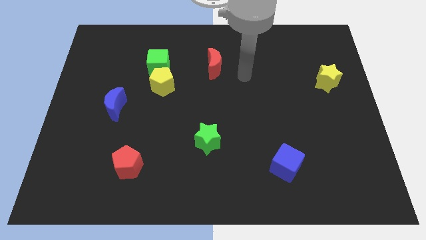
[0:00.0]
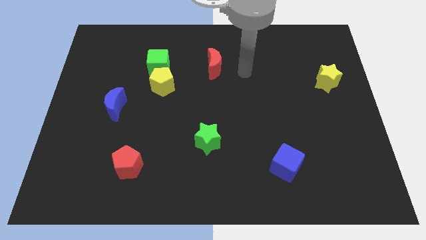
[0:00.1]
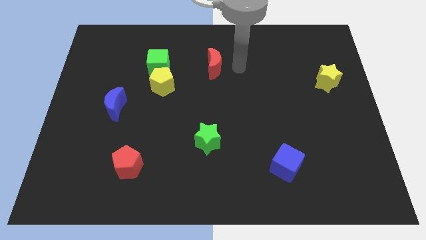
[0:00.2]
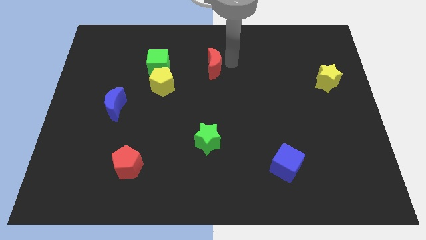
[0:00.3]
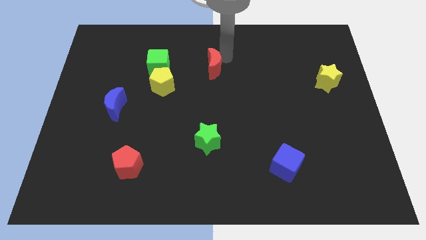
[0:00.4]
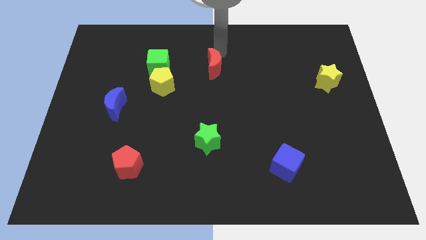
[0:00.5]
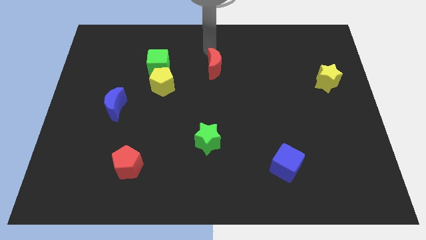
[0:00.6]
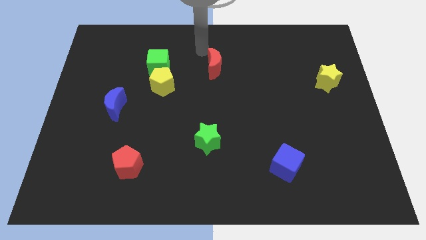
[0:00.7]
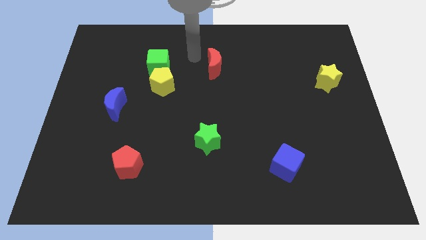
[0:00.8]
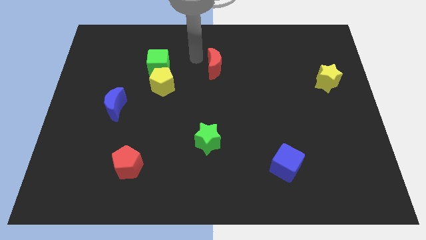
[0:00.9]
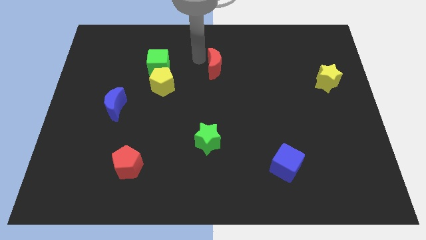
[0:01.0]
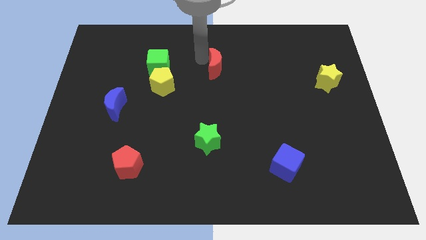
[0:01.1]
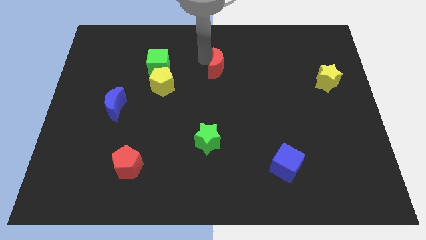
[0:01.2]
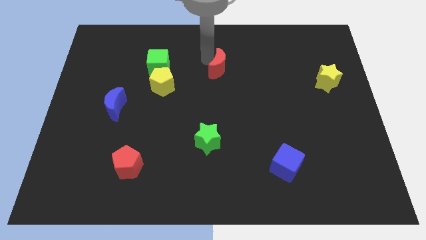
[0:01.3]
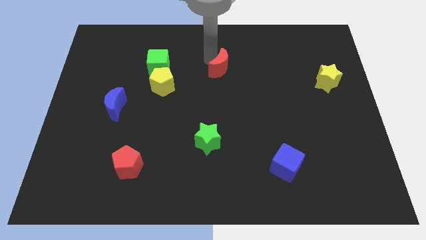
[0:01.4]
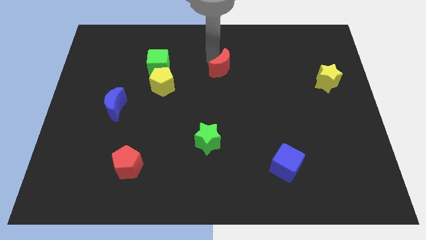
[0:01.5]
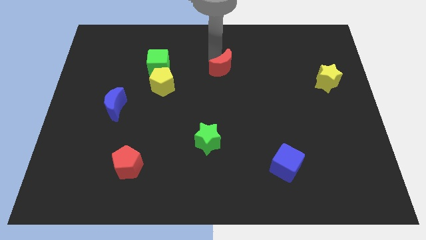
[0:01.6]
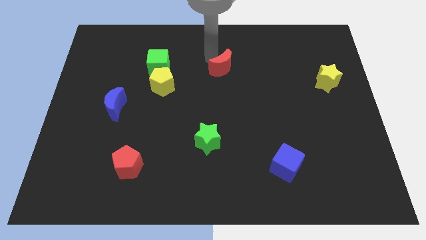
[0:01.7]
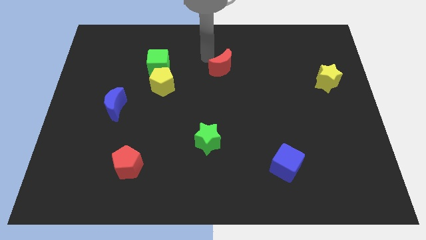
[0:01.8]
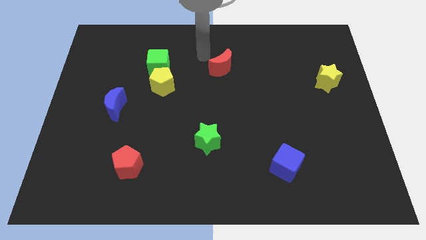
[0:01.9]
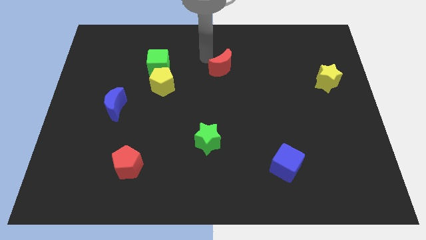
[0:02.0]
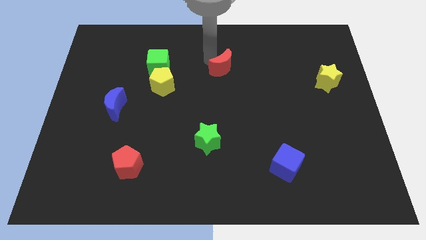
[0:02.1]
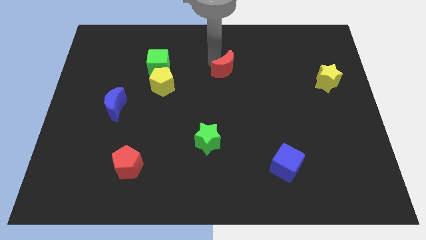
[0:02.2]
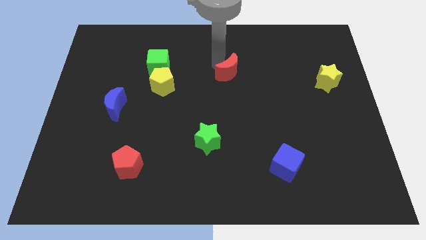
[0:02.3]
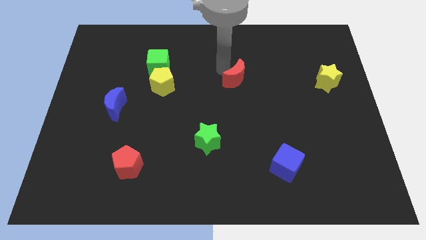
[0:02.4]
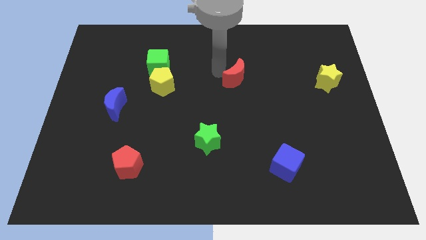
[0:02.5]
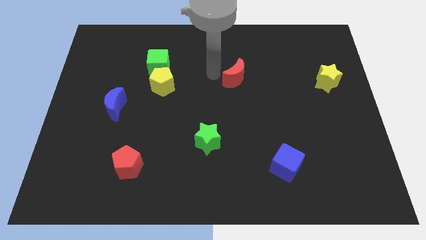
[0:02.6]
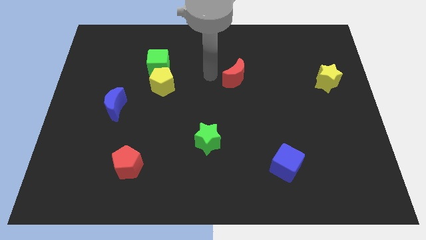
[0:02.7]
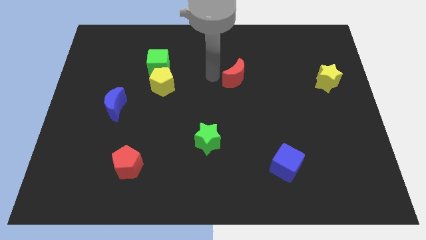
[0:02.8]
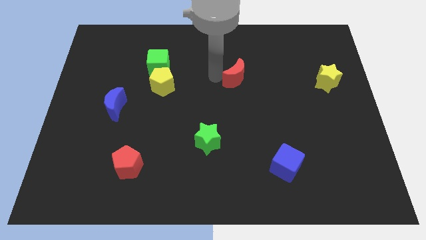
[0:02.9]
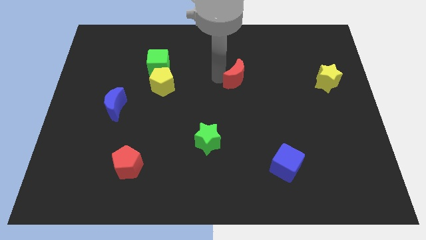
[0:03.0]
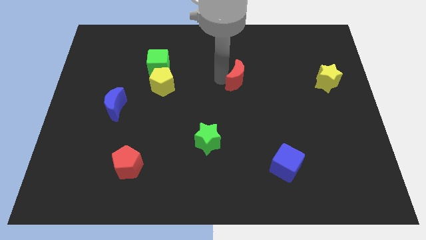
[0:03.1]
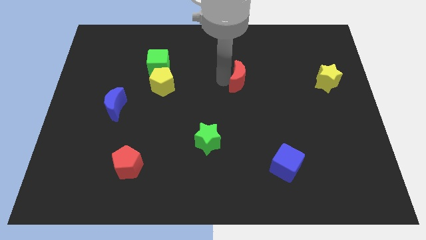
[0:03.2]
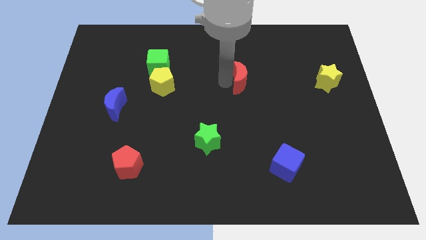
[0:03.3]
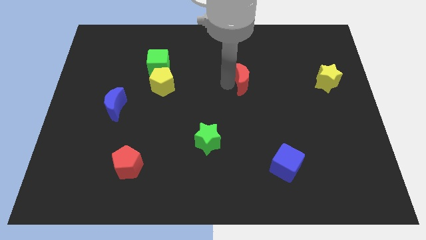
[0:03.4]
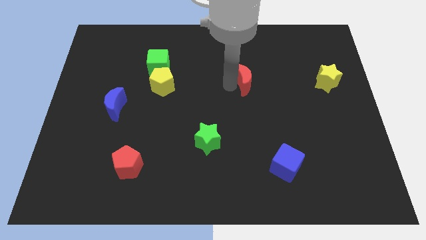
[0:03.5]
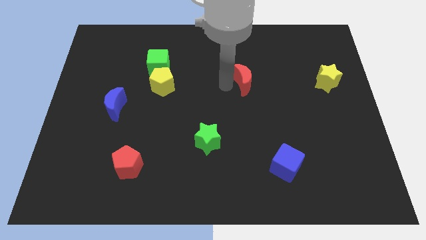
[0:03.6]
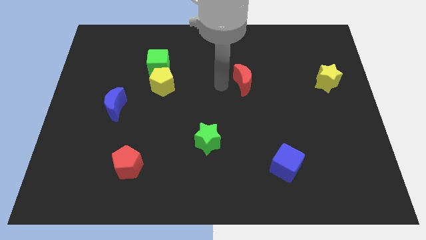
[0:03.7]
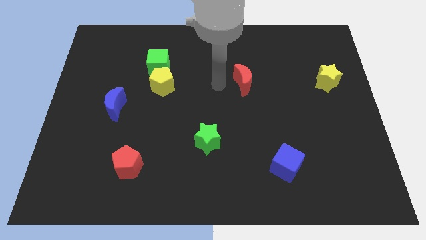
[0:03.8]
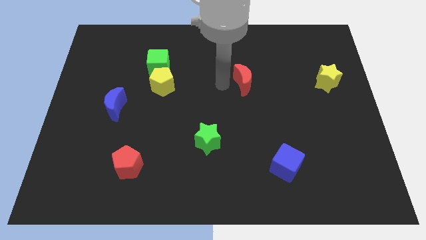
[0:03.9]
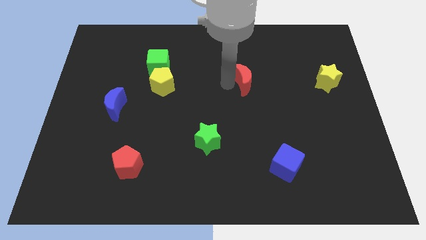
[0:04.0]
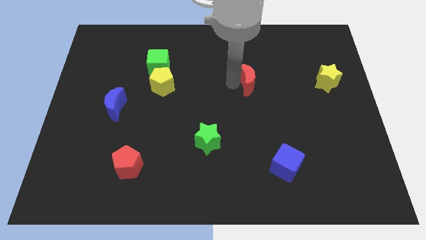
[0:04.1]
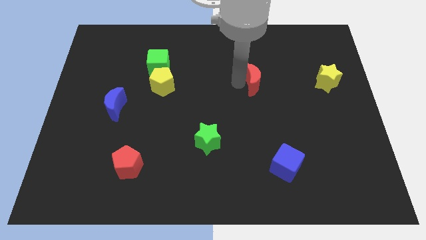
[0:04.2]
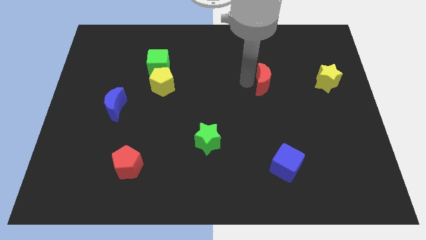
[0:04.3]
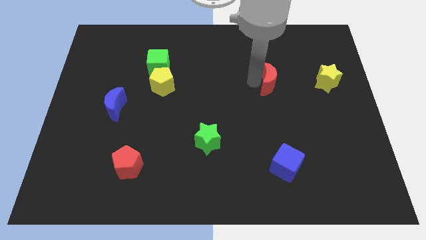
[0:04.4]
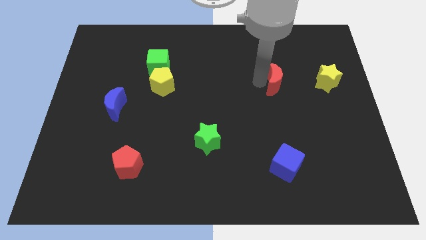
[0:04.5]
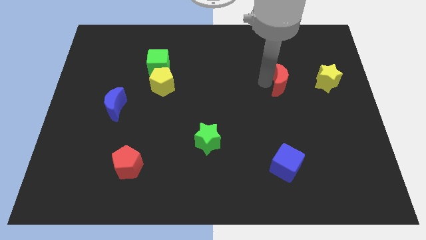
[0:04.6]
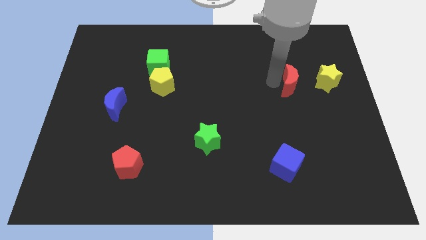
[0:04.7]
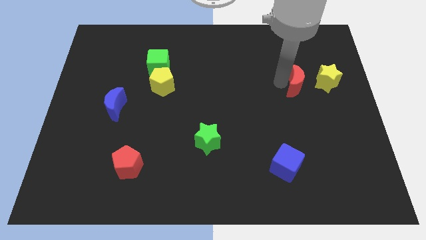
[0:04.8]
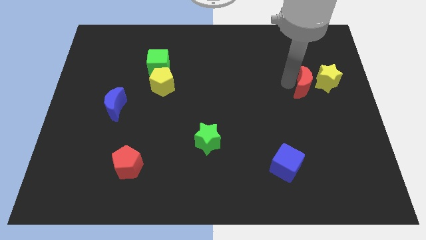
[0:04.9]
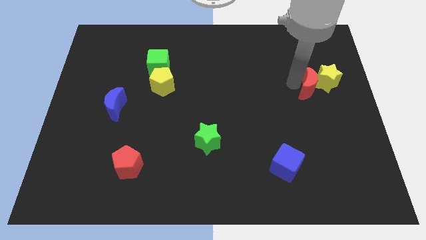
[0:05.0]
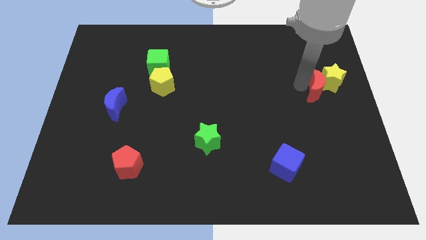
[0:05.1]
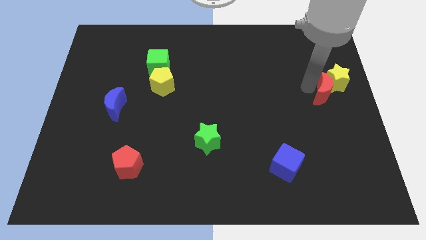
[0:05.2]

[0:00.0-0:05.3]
slide the red moon to the center right

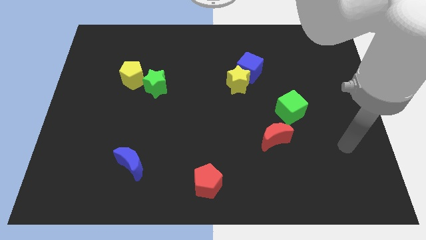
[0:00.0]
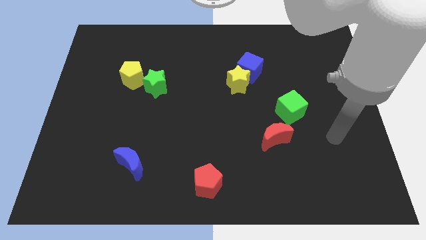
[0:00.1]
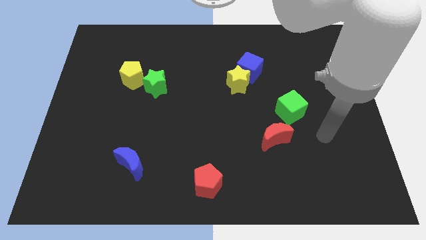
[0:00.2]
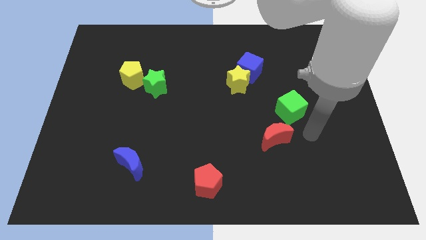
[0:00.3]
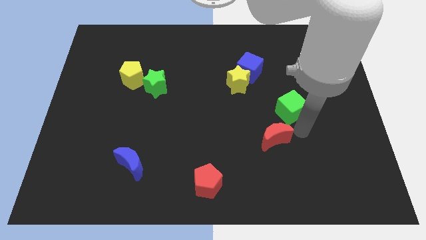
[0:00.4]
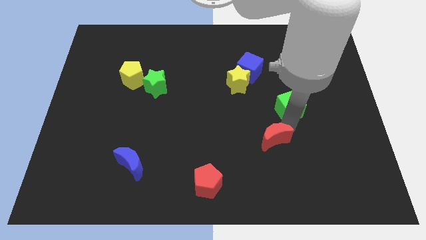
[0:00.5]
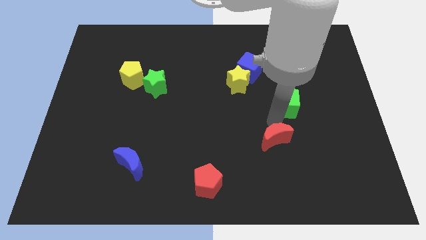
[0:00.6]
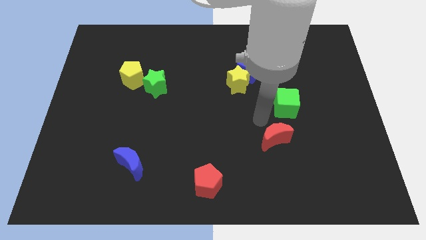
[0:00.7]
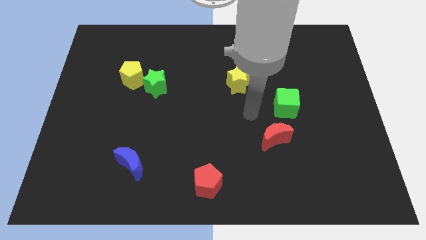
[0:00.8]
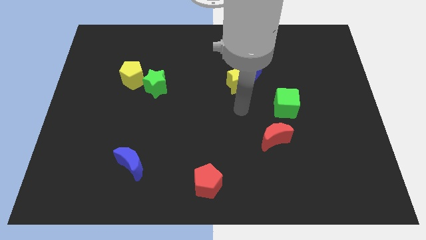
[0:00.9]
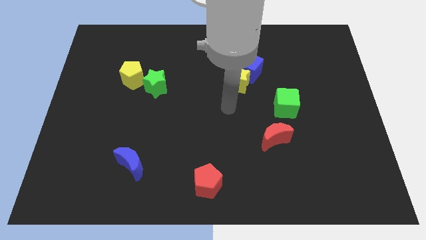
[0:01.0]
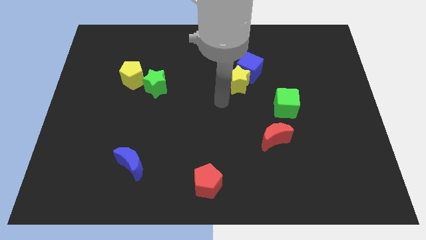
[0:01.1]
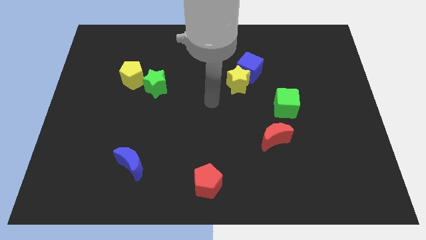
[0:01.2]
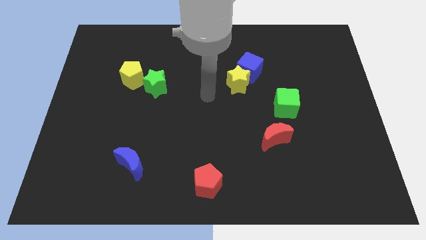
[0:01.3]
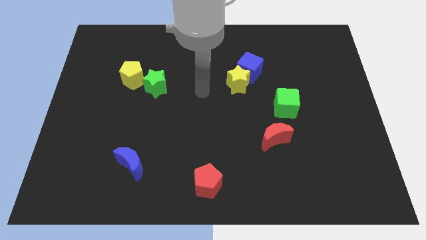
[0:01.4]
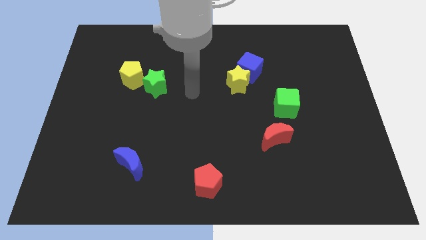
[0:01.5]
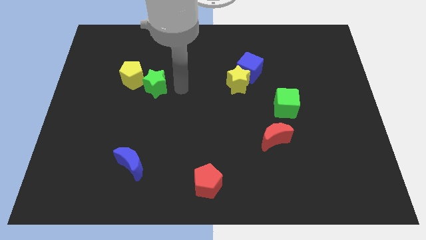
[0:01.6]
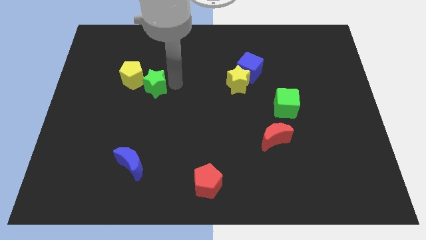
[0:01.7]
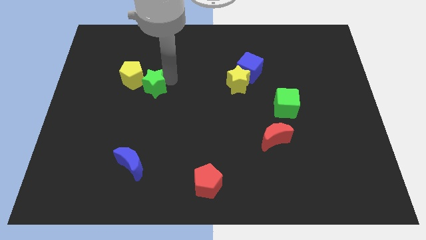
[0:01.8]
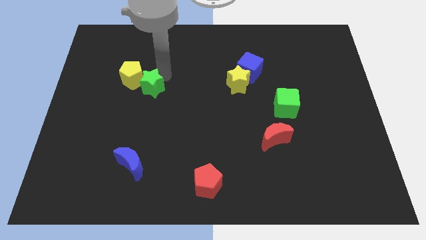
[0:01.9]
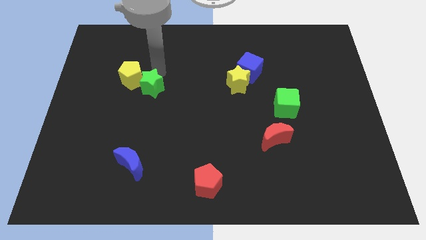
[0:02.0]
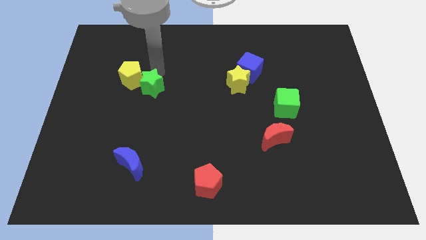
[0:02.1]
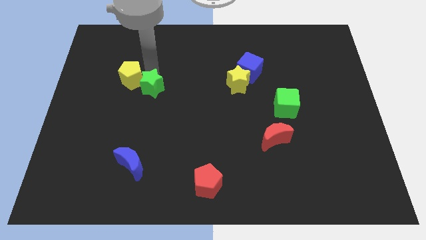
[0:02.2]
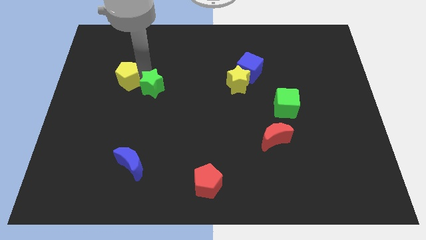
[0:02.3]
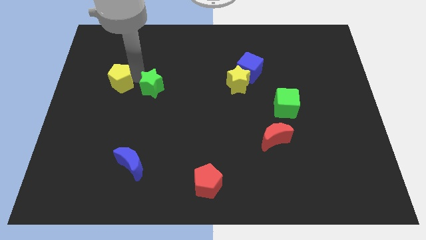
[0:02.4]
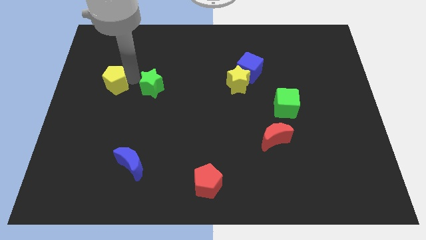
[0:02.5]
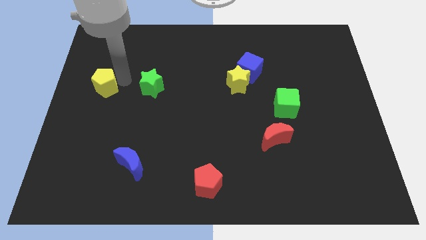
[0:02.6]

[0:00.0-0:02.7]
push the yellow pentagon to the center left
